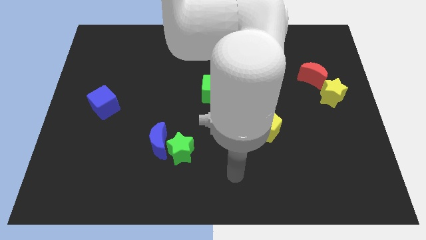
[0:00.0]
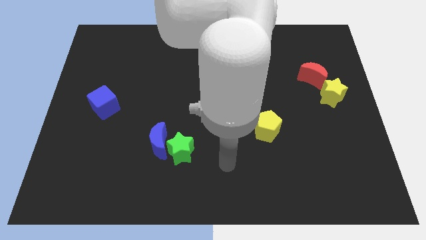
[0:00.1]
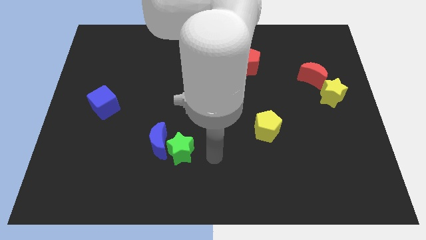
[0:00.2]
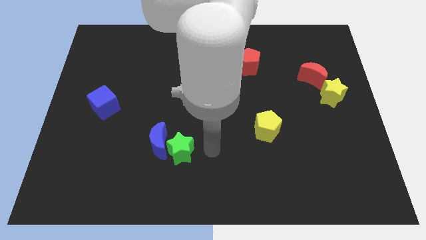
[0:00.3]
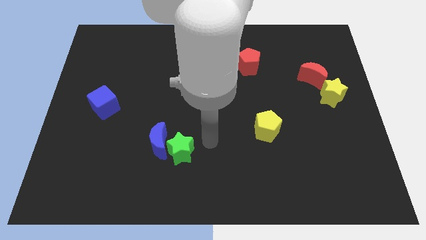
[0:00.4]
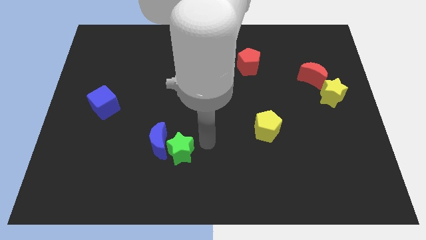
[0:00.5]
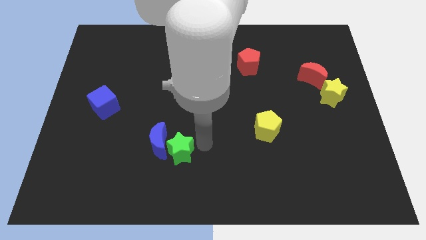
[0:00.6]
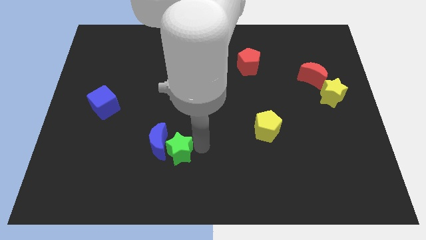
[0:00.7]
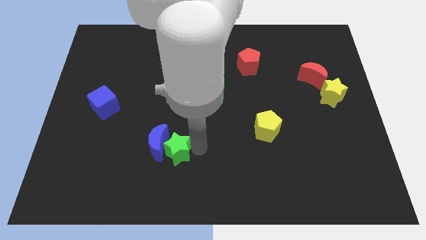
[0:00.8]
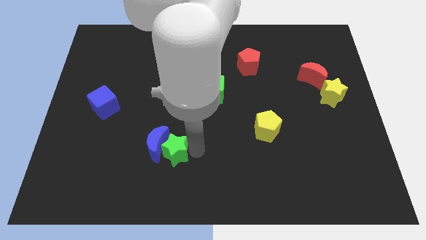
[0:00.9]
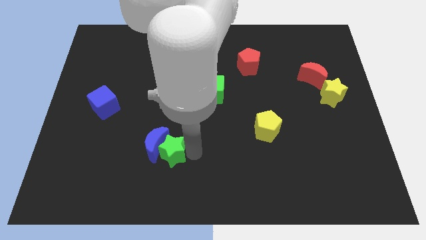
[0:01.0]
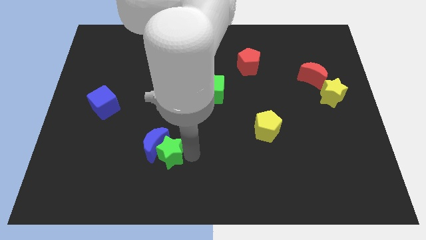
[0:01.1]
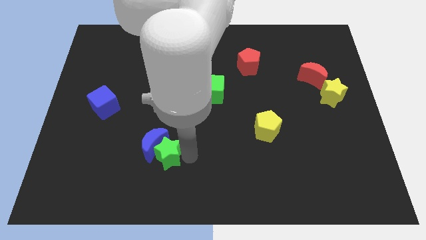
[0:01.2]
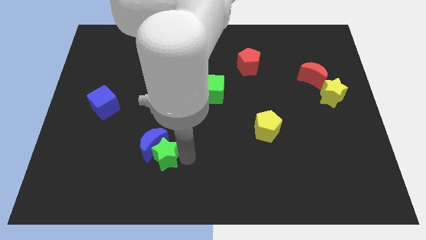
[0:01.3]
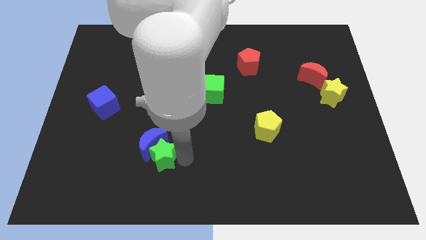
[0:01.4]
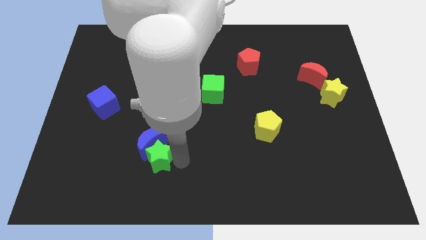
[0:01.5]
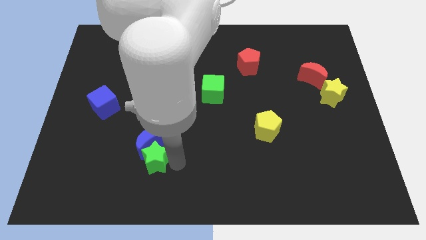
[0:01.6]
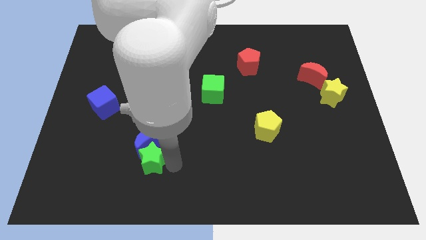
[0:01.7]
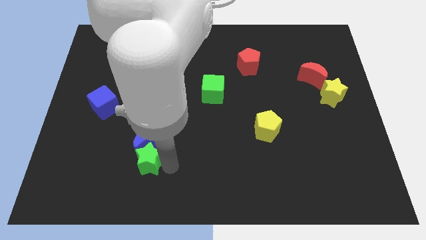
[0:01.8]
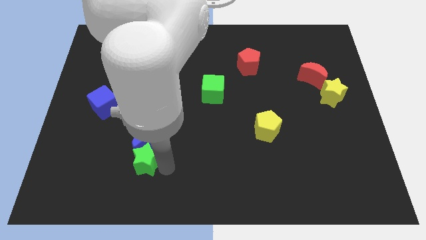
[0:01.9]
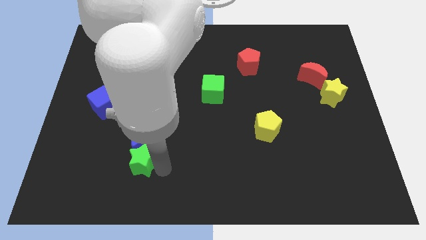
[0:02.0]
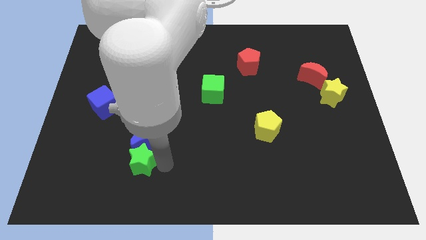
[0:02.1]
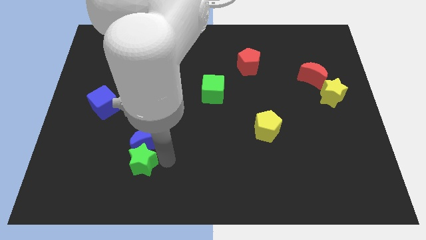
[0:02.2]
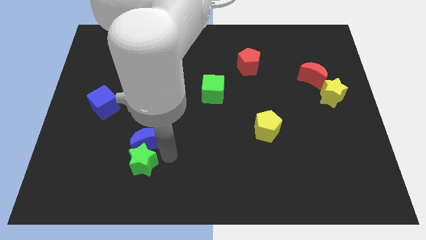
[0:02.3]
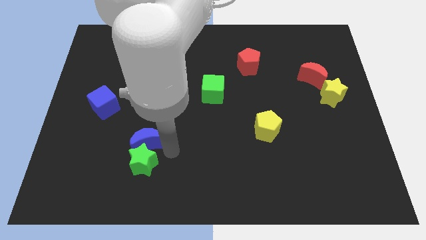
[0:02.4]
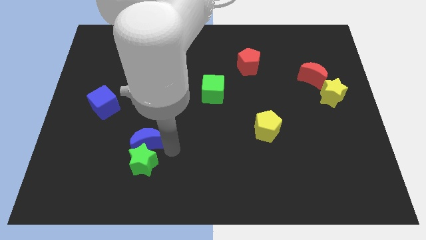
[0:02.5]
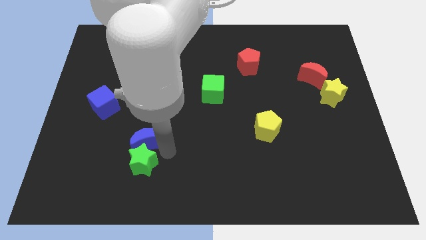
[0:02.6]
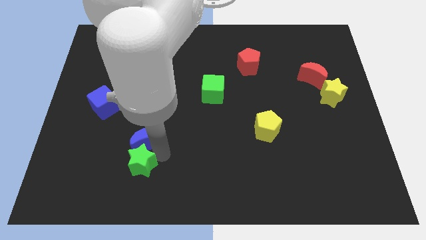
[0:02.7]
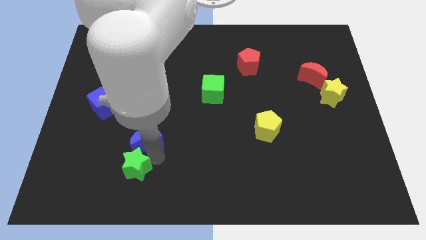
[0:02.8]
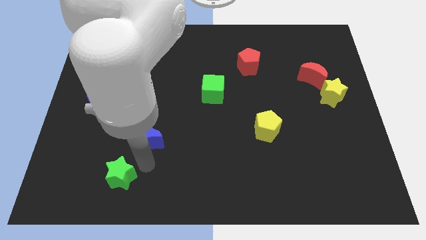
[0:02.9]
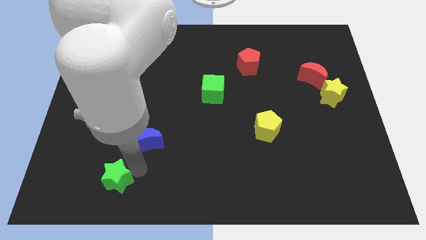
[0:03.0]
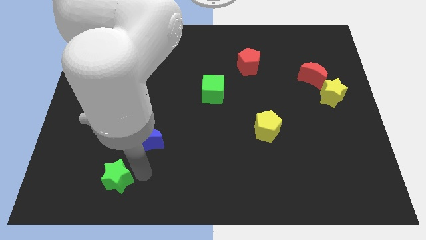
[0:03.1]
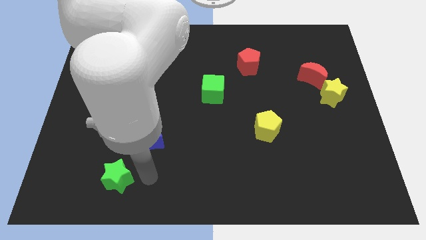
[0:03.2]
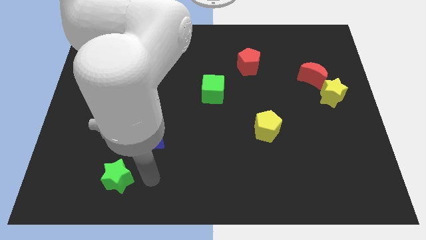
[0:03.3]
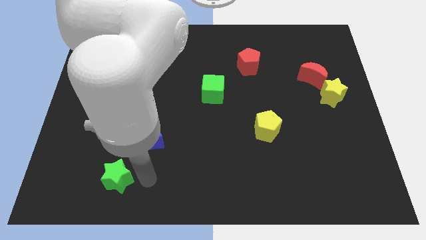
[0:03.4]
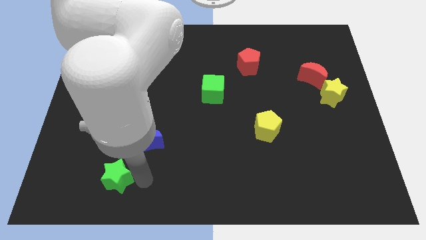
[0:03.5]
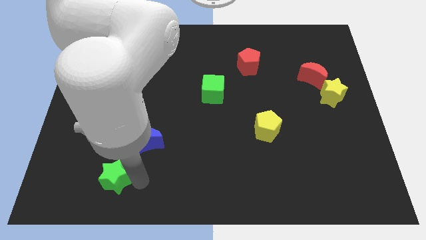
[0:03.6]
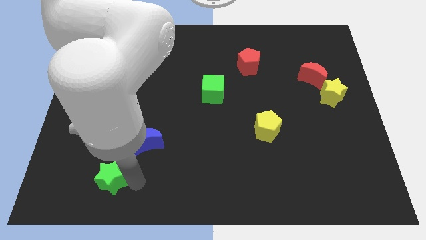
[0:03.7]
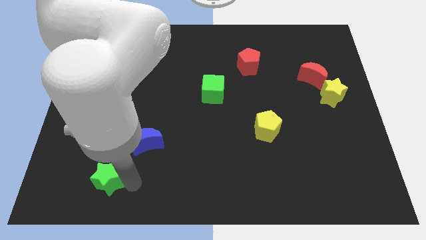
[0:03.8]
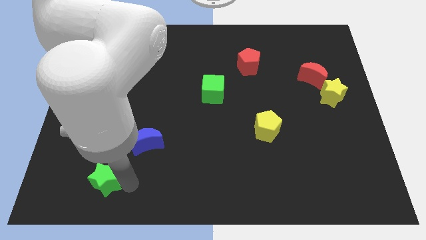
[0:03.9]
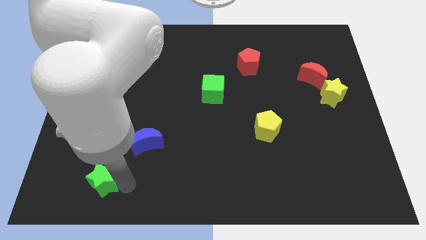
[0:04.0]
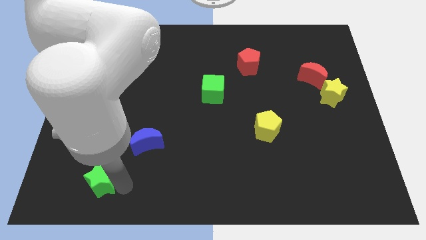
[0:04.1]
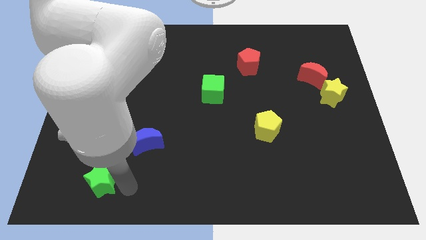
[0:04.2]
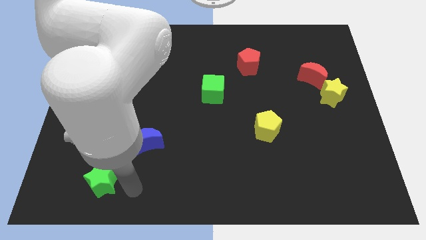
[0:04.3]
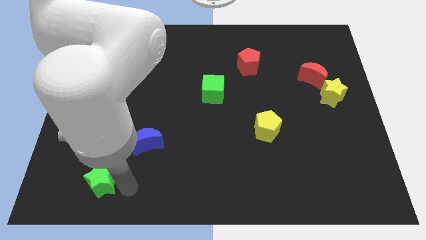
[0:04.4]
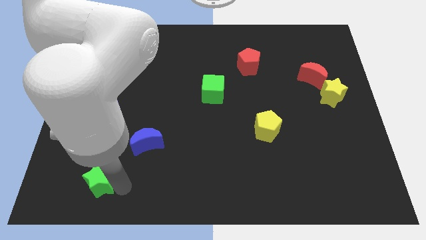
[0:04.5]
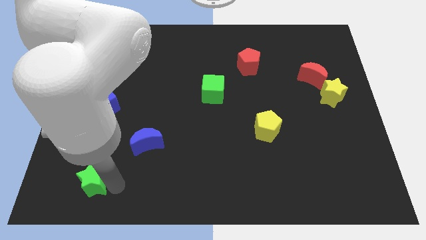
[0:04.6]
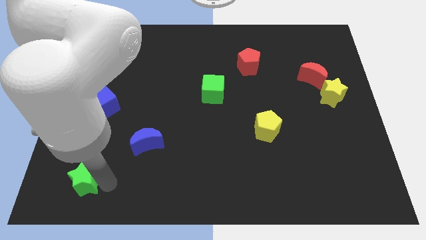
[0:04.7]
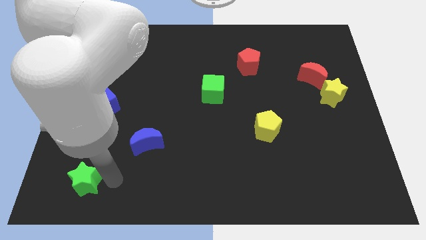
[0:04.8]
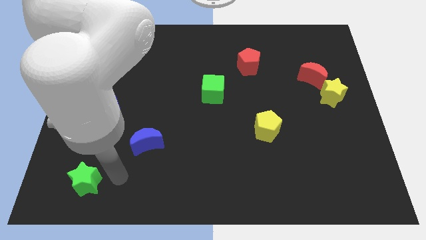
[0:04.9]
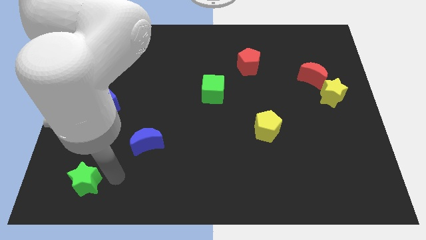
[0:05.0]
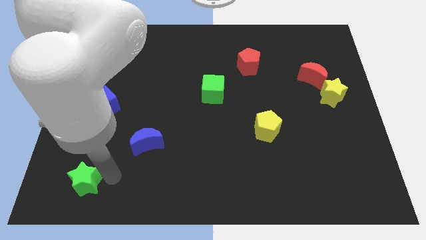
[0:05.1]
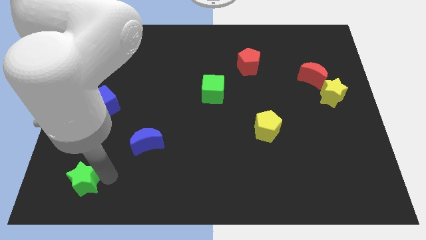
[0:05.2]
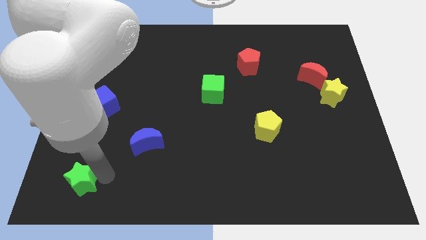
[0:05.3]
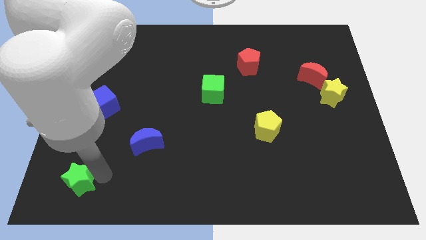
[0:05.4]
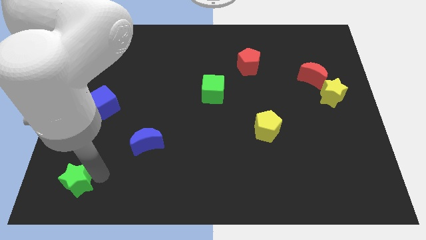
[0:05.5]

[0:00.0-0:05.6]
move the green star to the lower left corner
